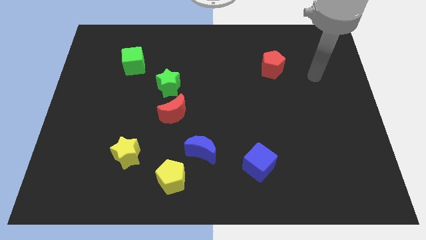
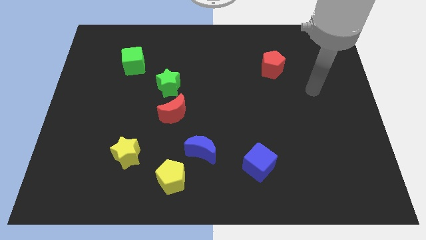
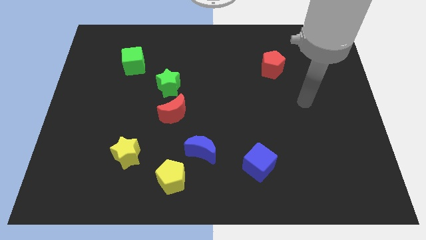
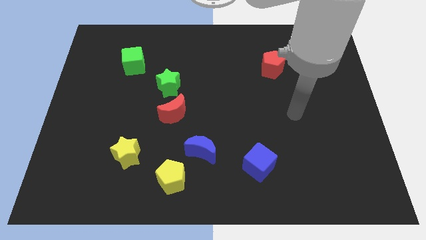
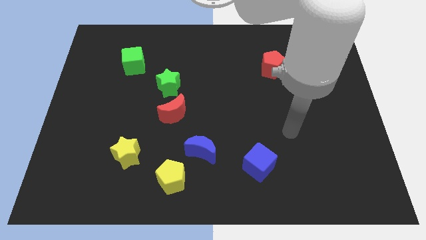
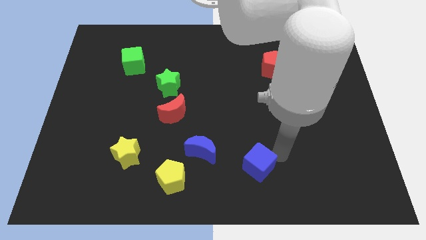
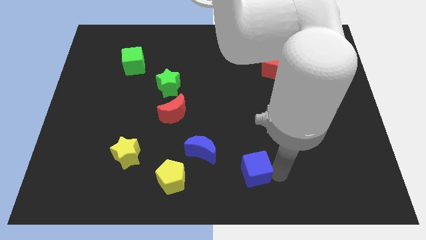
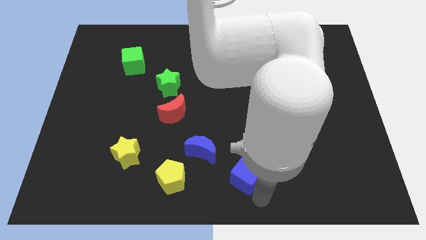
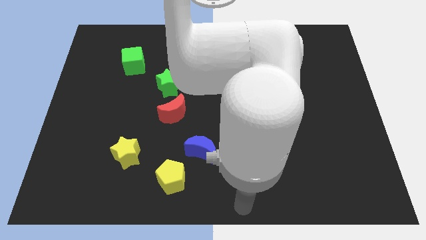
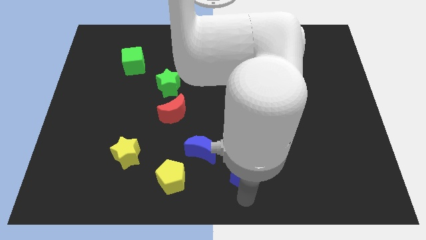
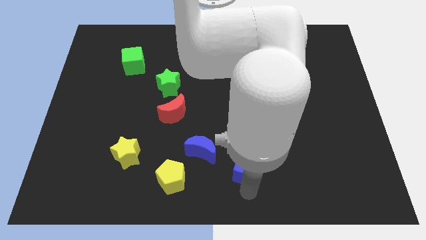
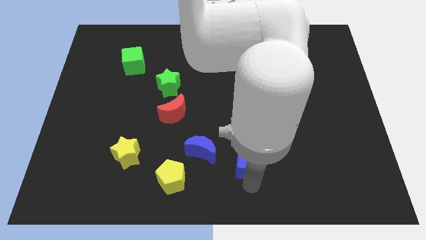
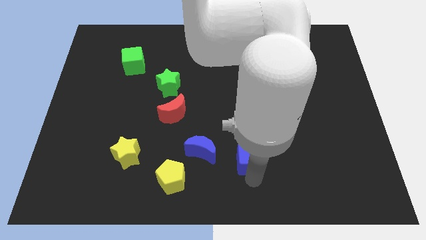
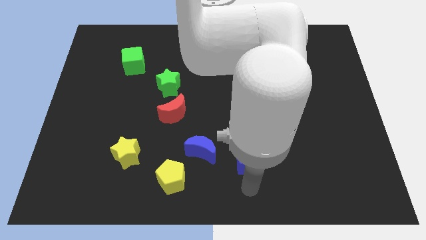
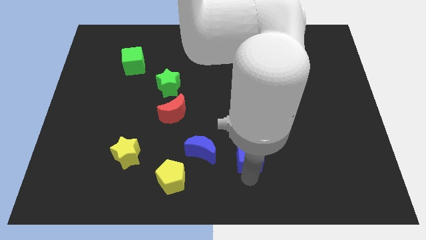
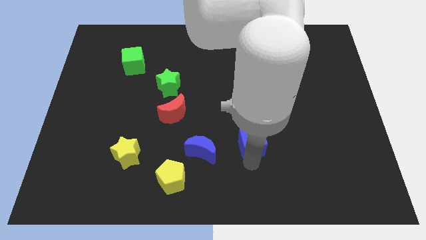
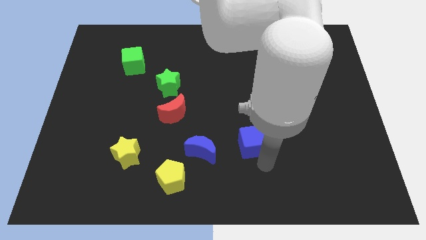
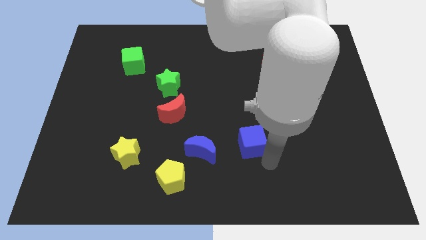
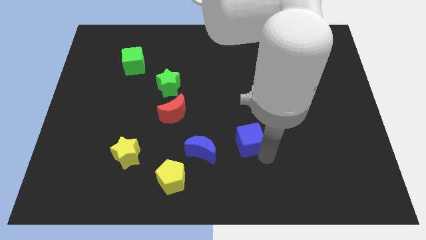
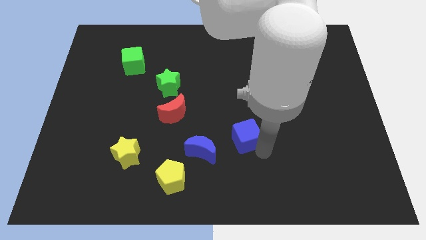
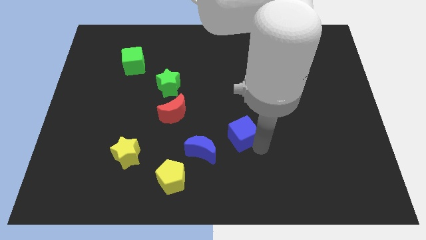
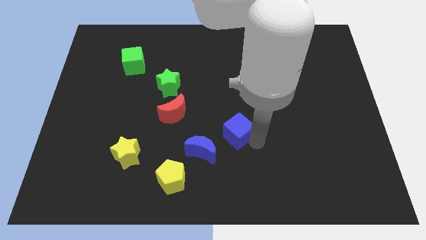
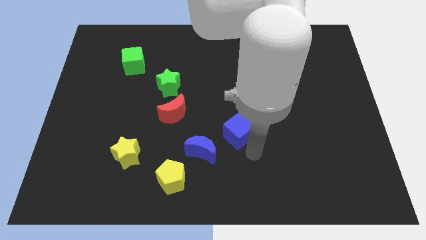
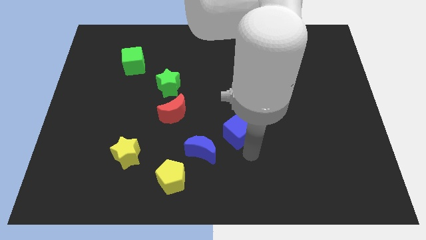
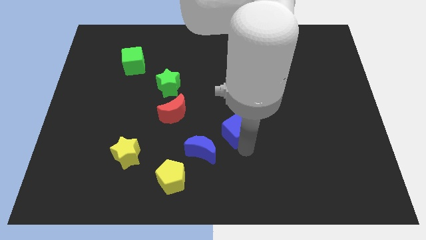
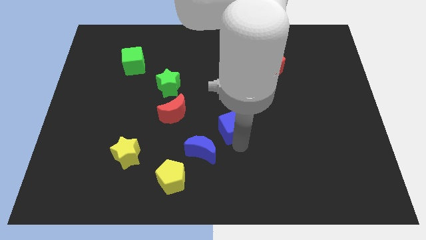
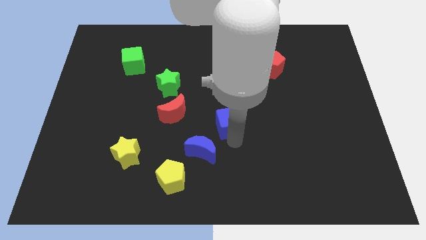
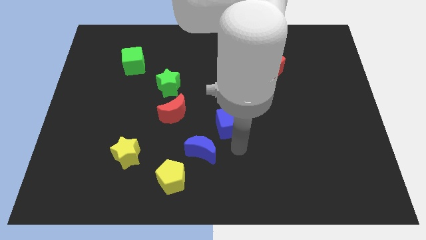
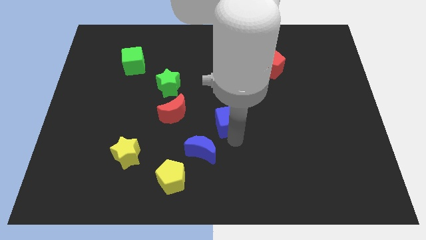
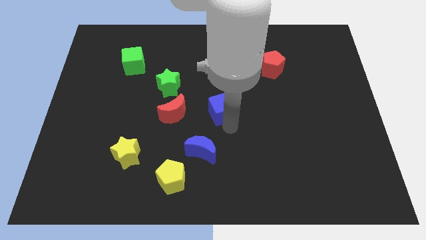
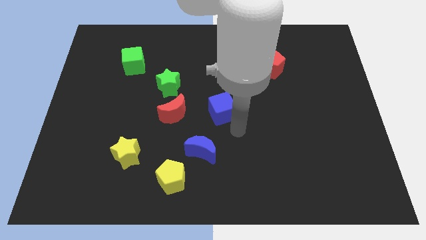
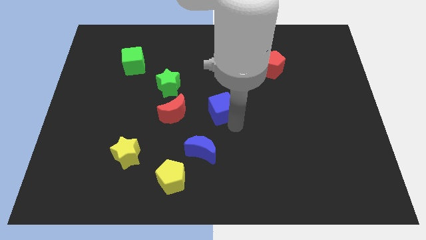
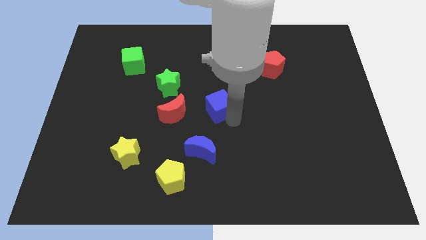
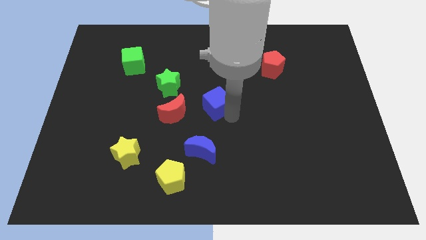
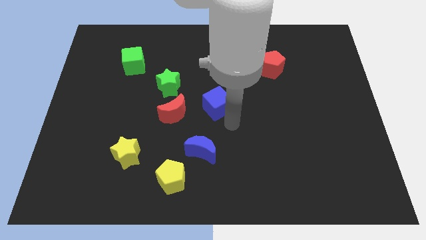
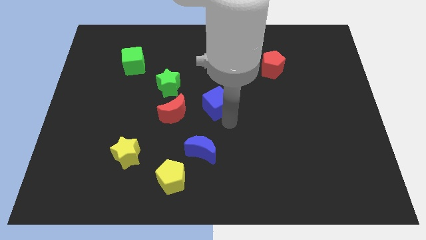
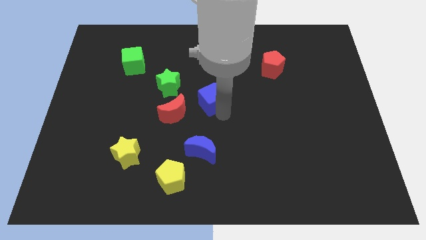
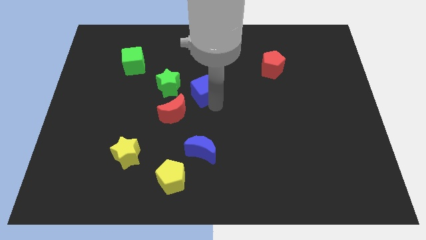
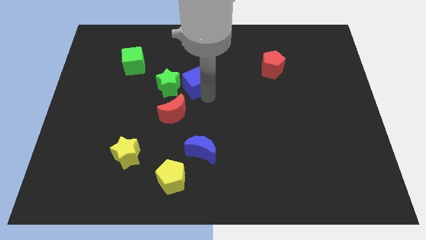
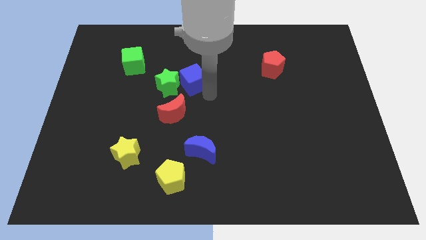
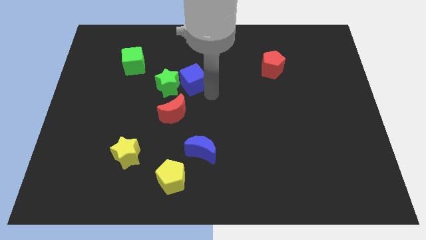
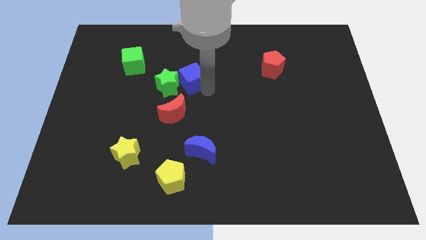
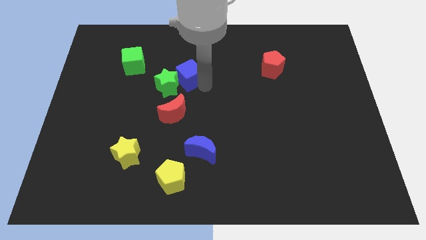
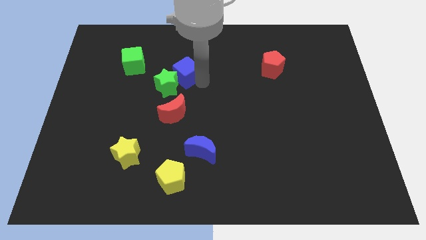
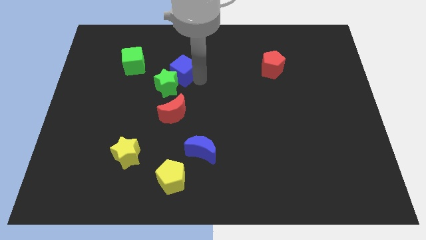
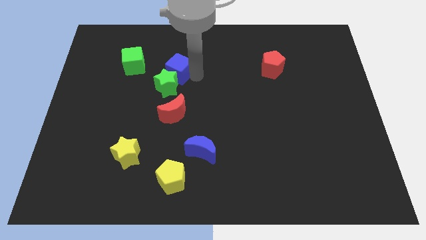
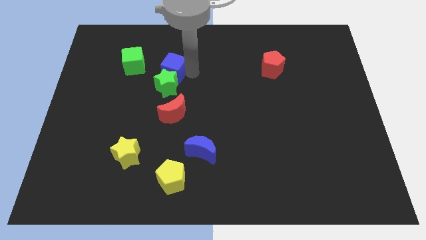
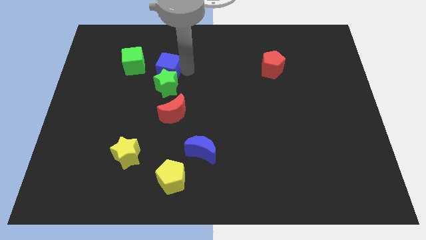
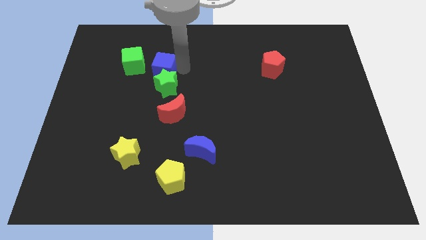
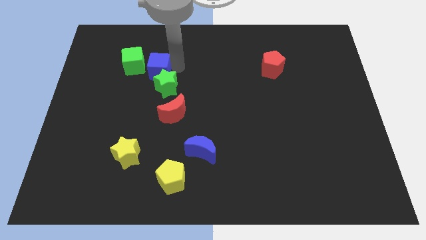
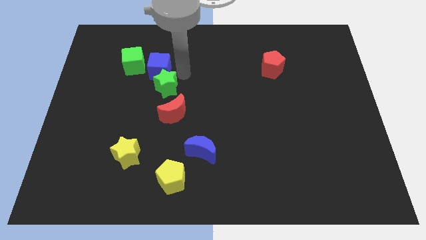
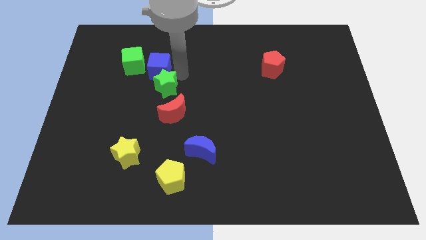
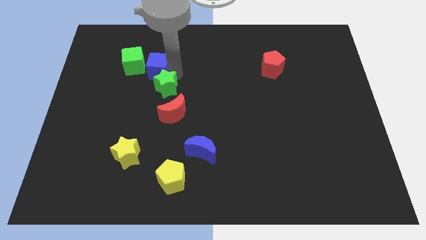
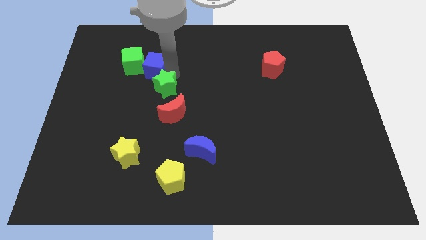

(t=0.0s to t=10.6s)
put the blue cube next to the green cube

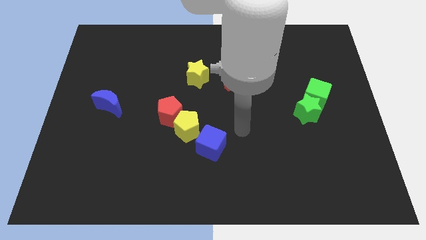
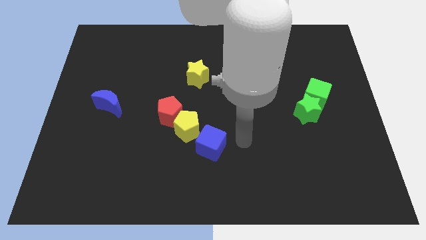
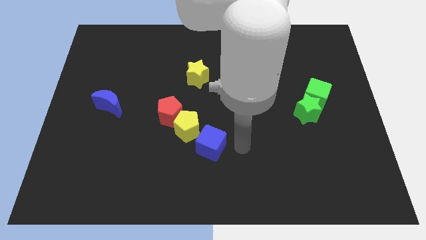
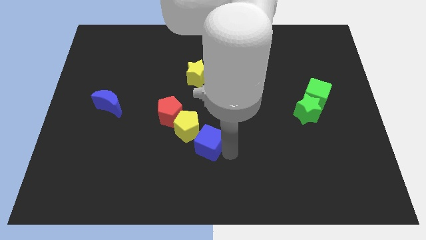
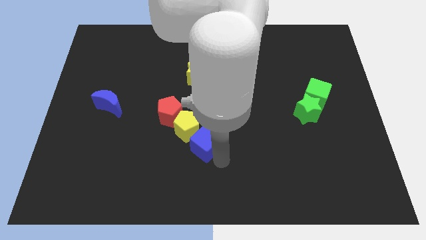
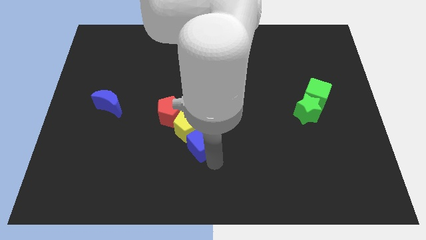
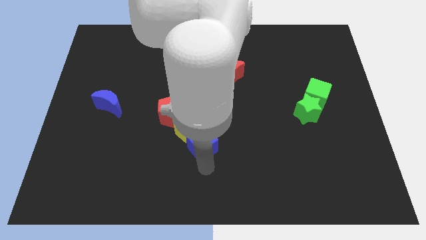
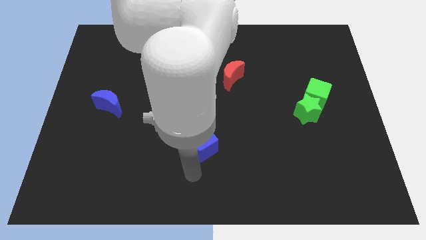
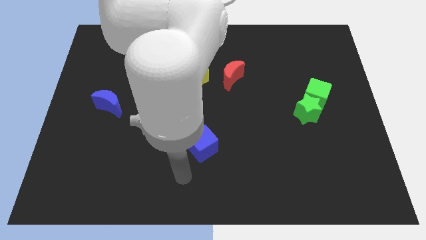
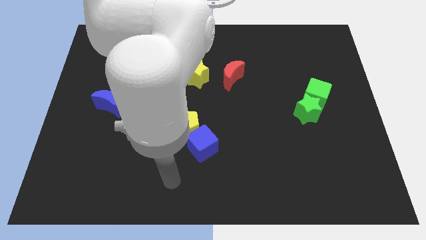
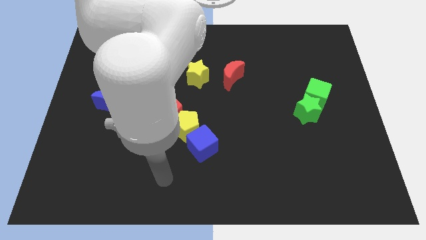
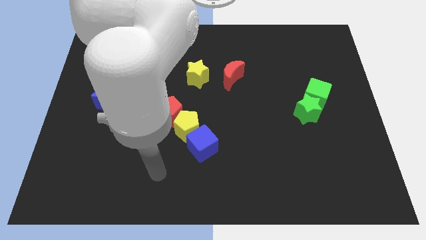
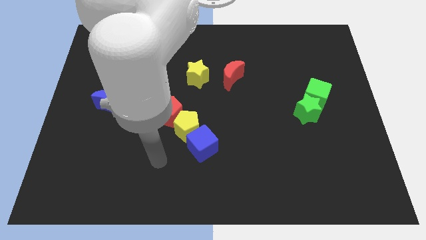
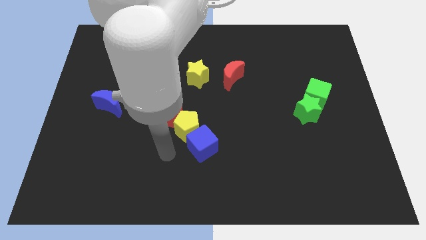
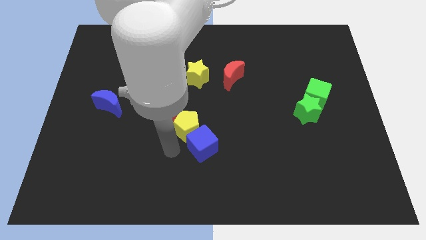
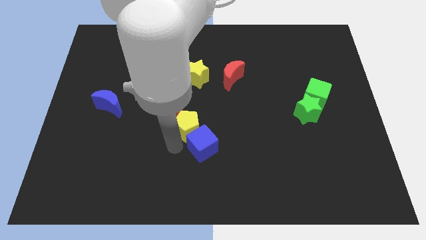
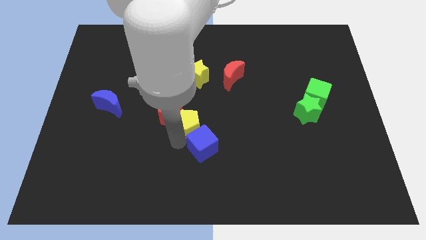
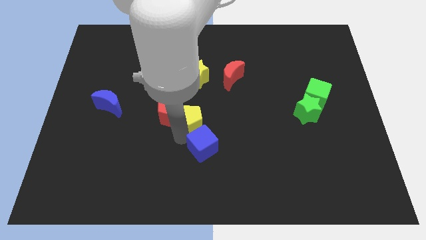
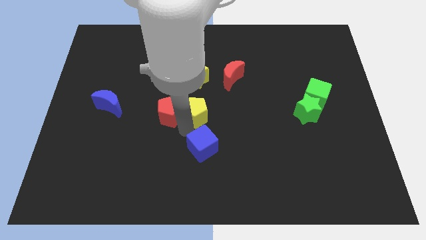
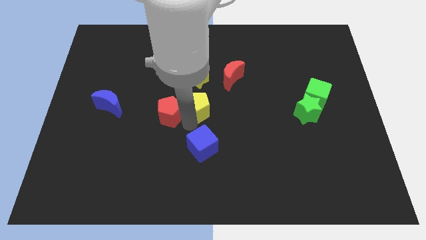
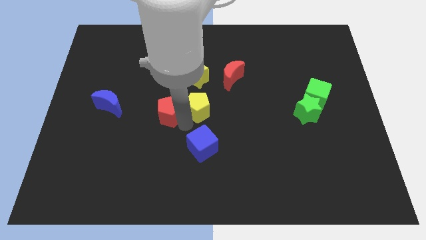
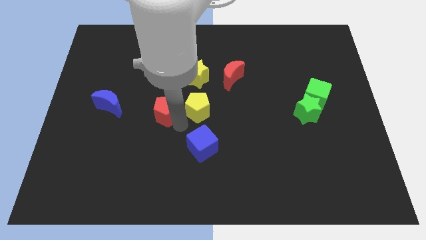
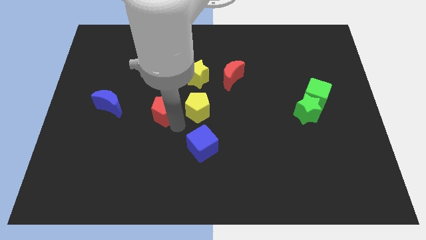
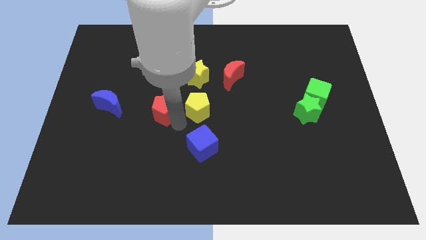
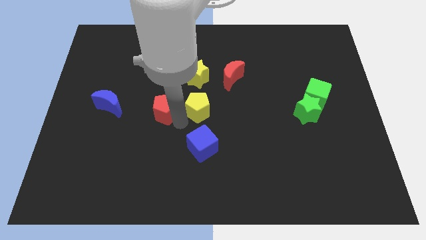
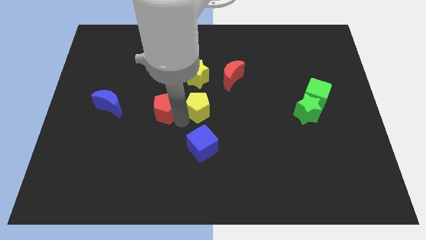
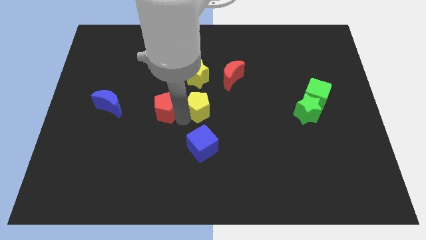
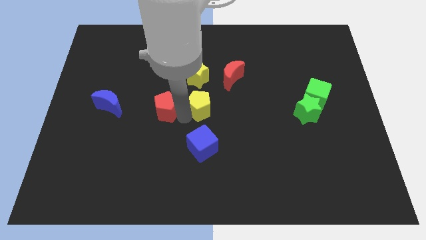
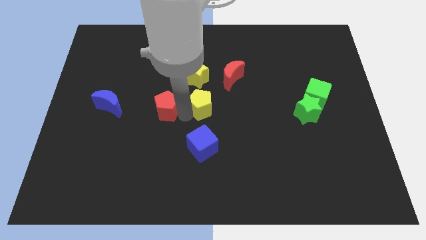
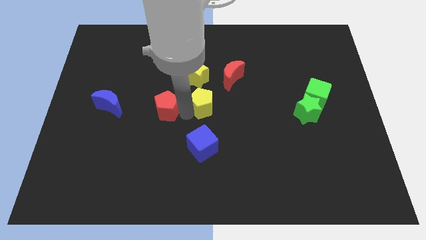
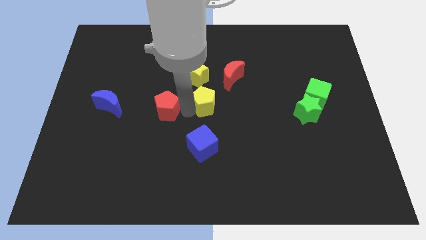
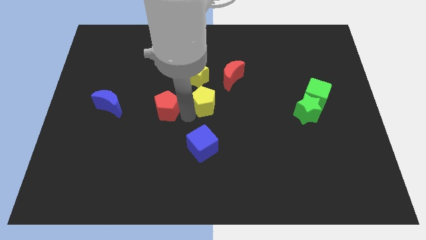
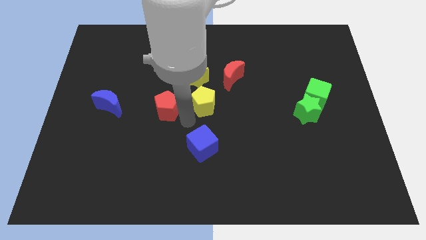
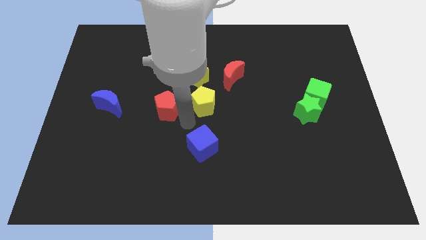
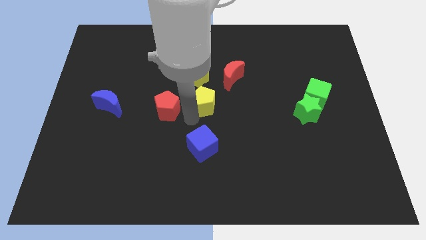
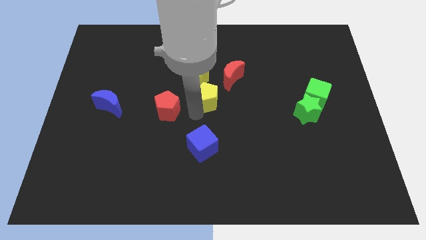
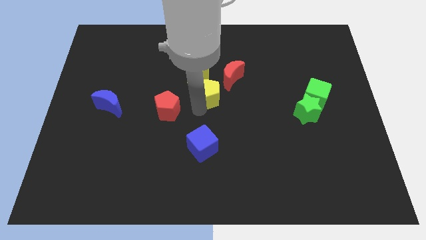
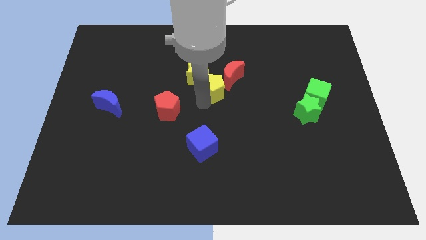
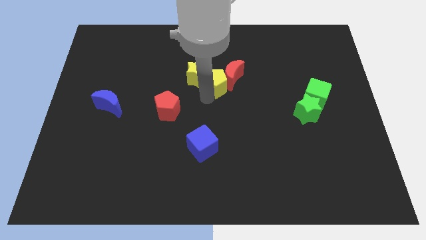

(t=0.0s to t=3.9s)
slide the yellow pentagon towards the red moon
